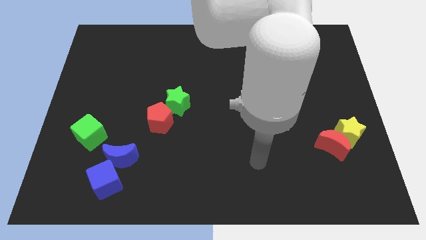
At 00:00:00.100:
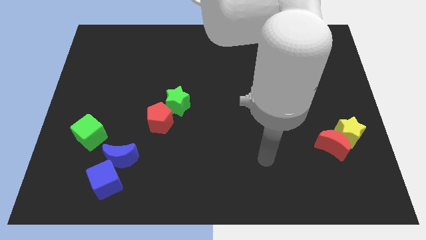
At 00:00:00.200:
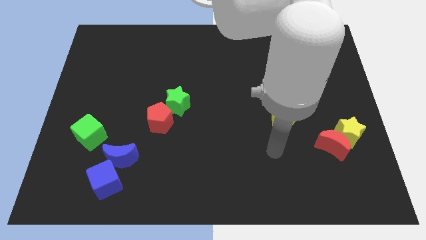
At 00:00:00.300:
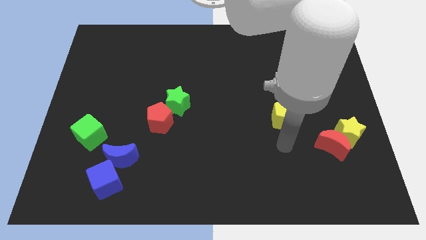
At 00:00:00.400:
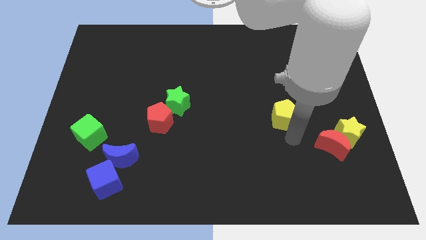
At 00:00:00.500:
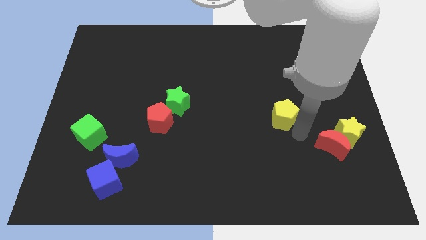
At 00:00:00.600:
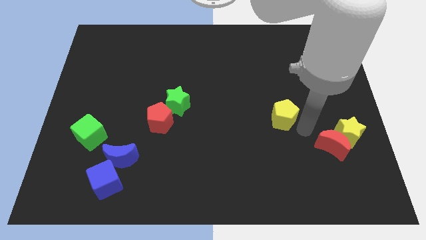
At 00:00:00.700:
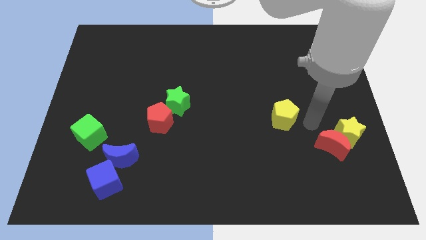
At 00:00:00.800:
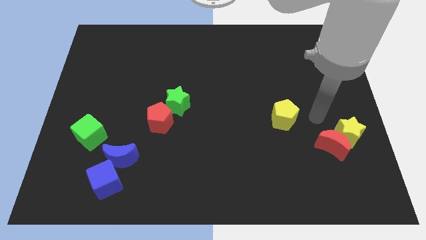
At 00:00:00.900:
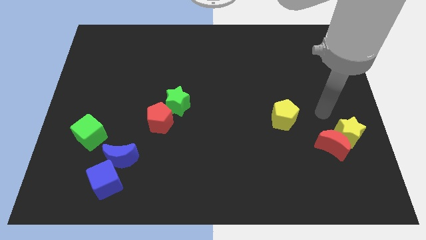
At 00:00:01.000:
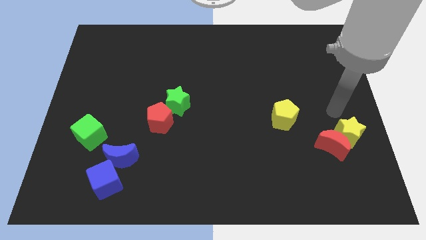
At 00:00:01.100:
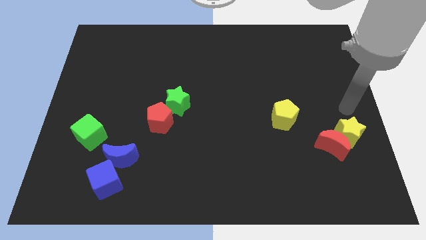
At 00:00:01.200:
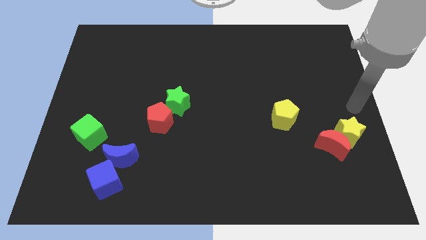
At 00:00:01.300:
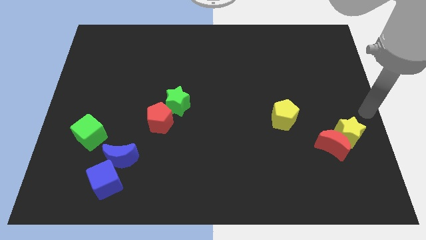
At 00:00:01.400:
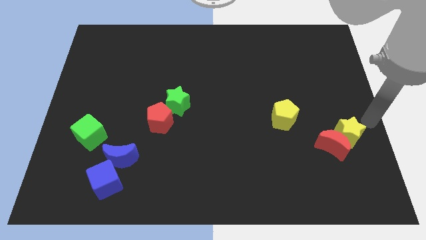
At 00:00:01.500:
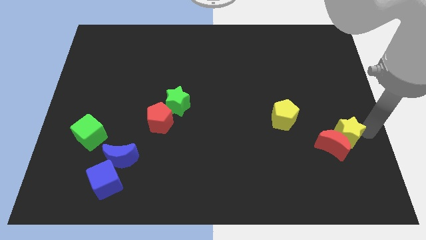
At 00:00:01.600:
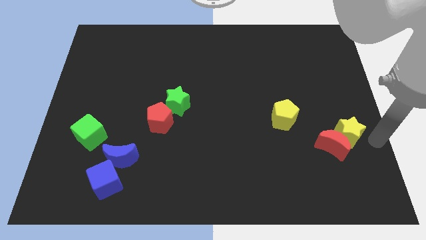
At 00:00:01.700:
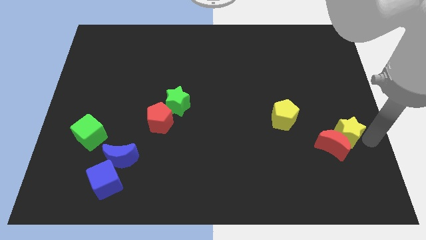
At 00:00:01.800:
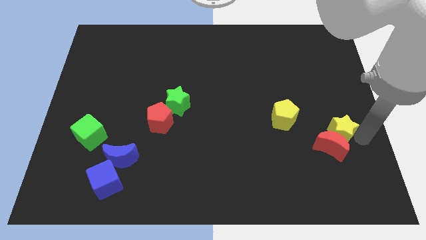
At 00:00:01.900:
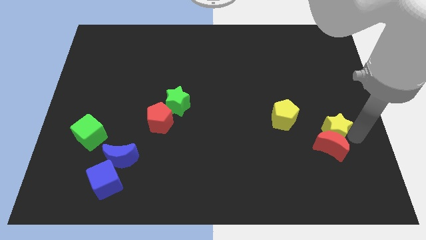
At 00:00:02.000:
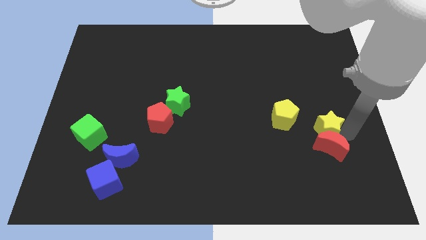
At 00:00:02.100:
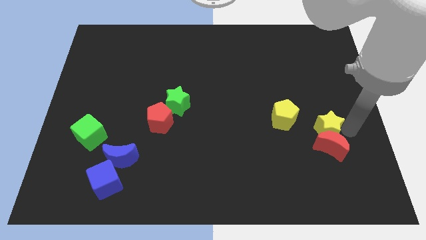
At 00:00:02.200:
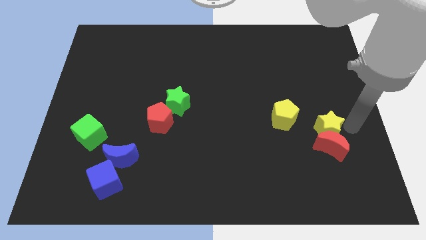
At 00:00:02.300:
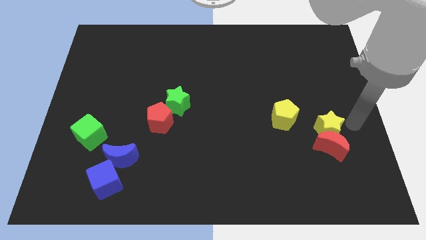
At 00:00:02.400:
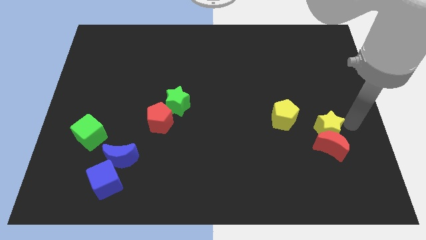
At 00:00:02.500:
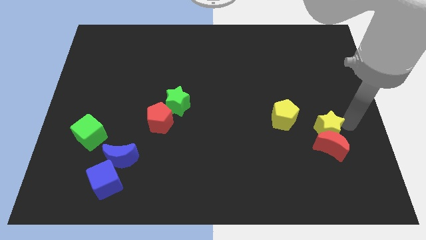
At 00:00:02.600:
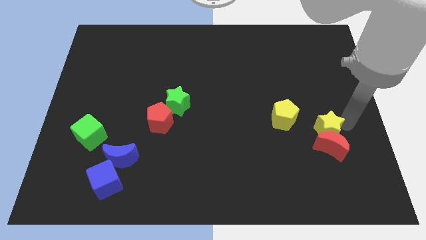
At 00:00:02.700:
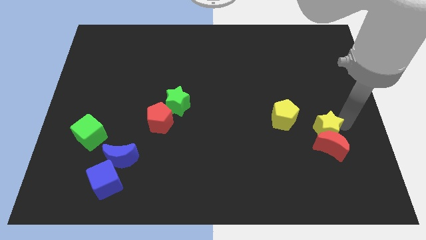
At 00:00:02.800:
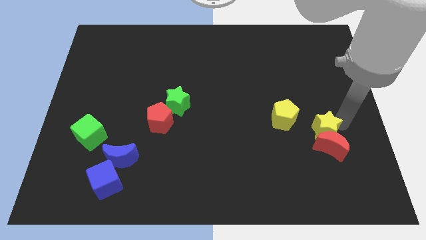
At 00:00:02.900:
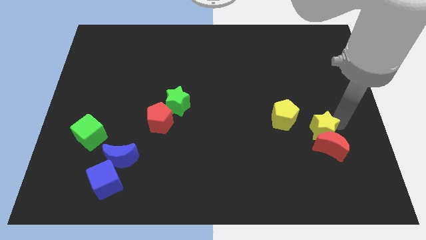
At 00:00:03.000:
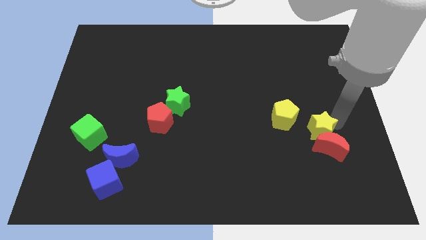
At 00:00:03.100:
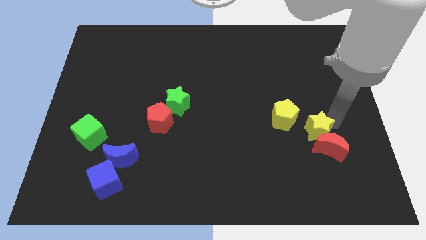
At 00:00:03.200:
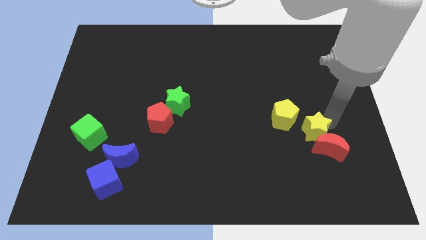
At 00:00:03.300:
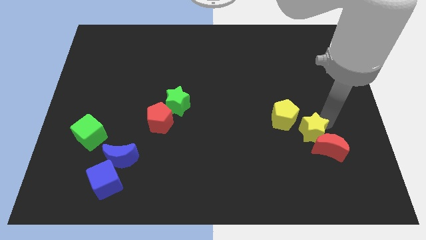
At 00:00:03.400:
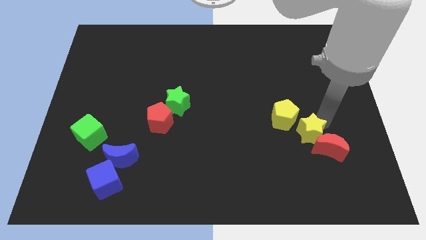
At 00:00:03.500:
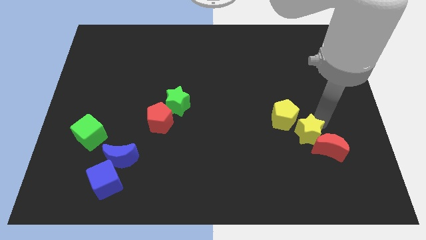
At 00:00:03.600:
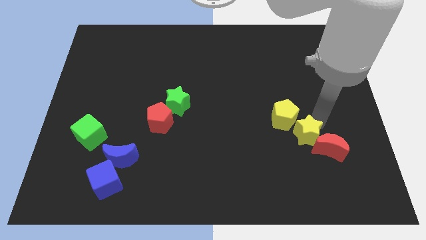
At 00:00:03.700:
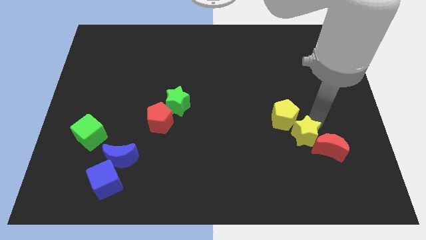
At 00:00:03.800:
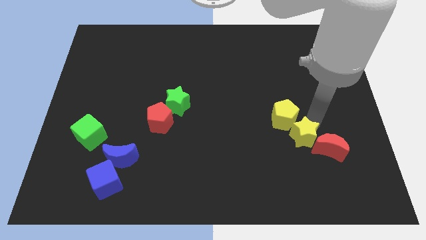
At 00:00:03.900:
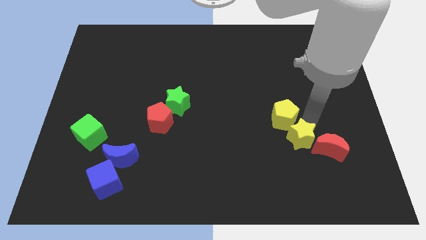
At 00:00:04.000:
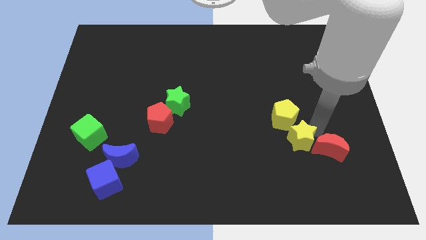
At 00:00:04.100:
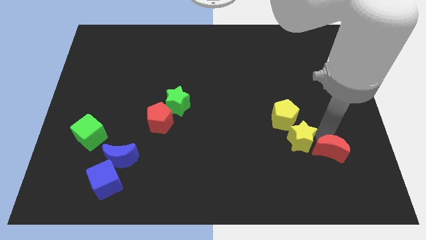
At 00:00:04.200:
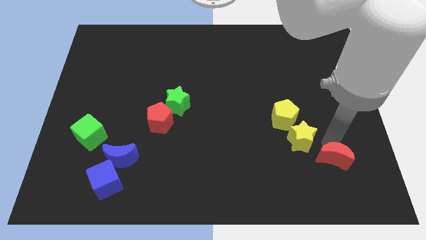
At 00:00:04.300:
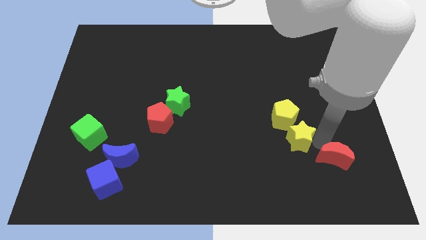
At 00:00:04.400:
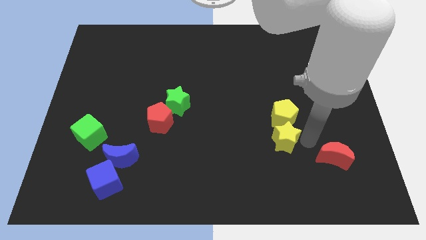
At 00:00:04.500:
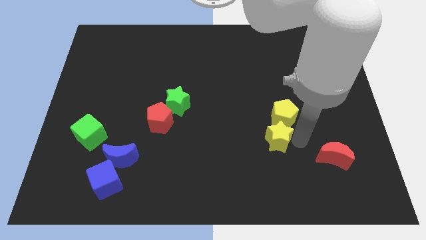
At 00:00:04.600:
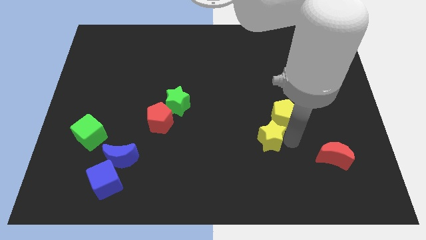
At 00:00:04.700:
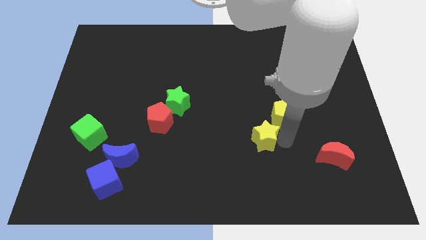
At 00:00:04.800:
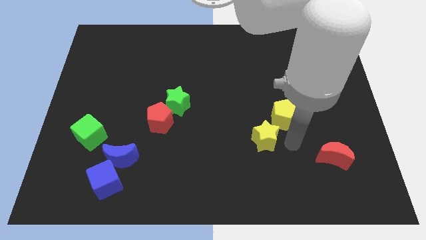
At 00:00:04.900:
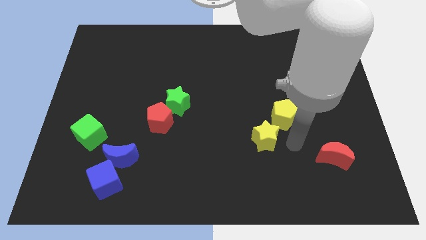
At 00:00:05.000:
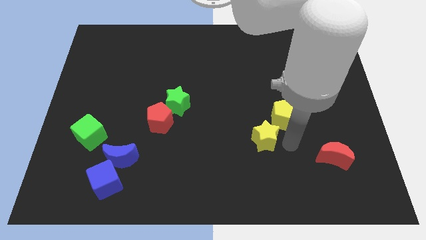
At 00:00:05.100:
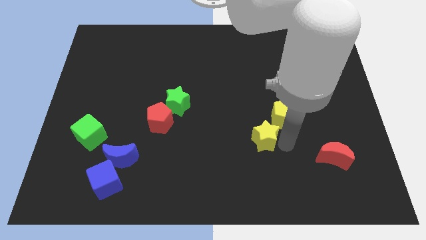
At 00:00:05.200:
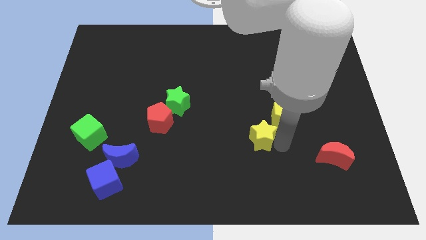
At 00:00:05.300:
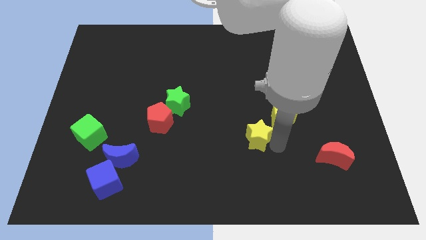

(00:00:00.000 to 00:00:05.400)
slide the yellow star left

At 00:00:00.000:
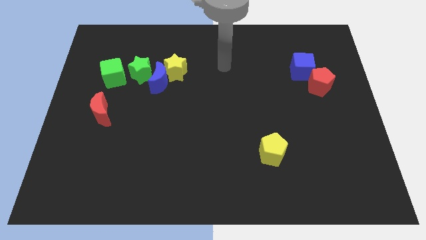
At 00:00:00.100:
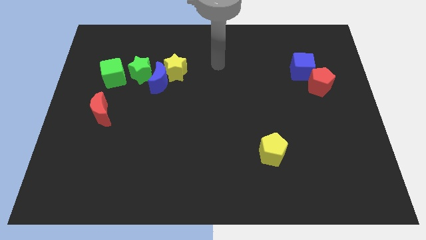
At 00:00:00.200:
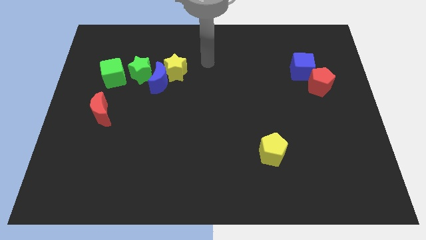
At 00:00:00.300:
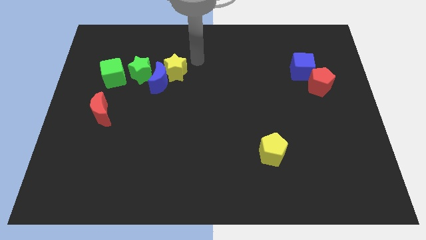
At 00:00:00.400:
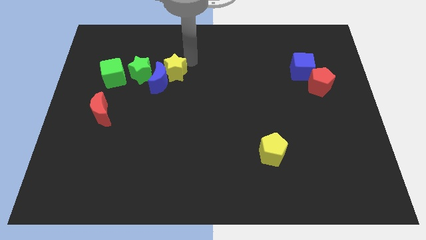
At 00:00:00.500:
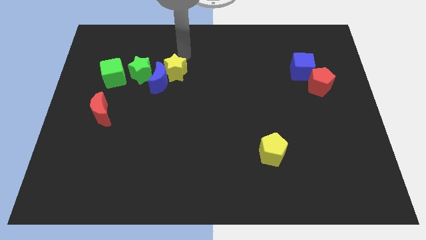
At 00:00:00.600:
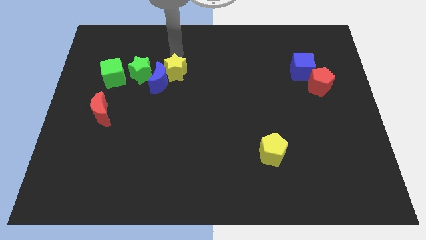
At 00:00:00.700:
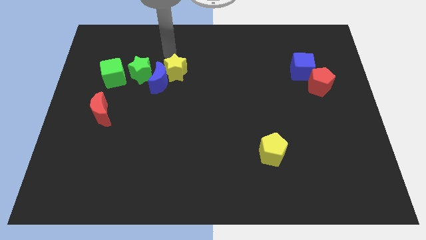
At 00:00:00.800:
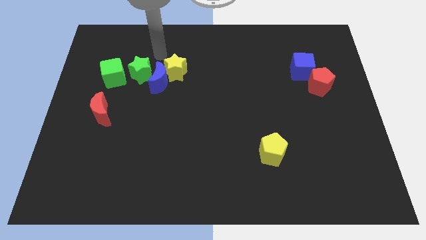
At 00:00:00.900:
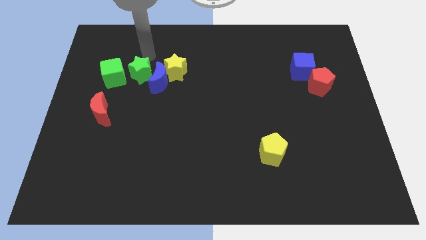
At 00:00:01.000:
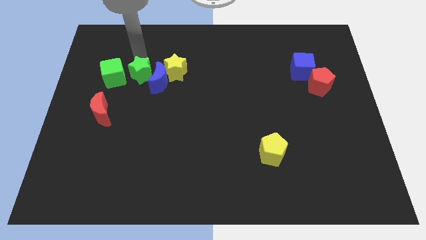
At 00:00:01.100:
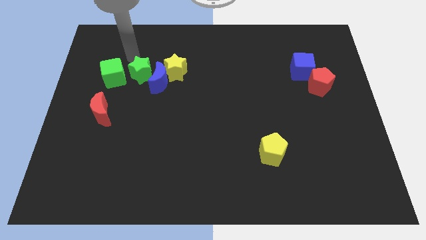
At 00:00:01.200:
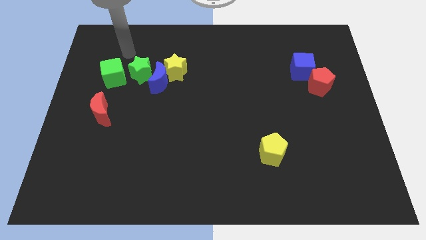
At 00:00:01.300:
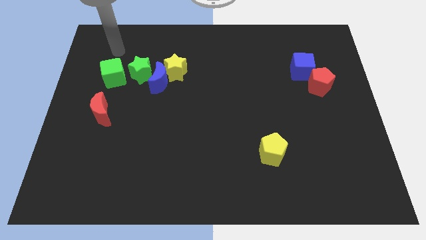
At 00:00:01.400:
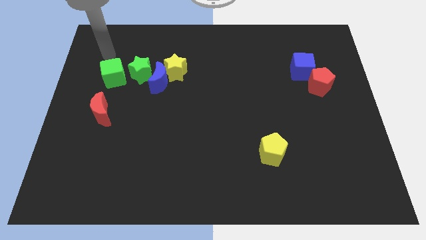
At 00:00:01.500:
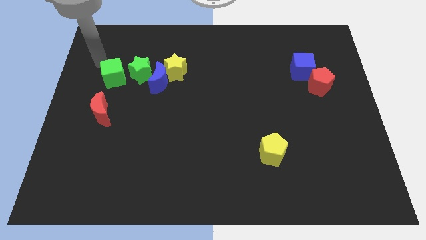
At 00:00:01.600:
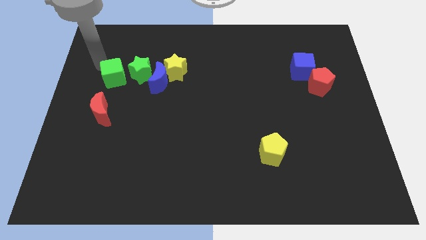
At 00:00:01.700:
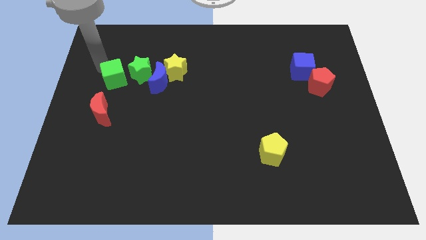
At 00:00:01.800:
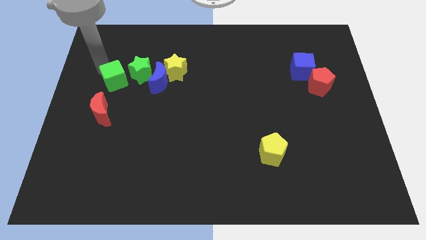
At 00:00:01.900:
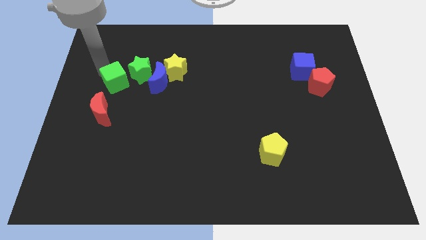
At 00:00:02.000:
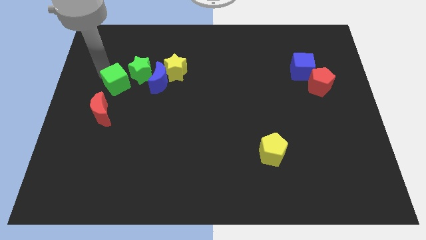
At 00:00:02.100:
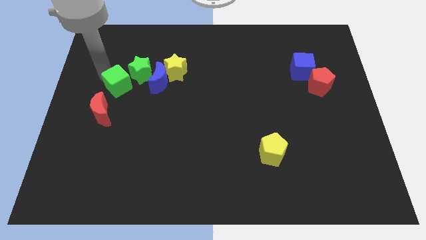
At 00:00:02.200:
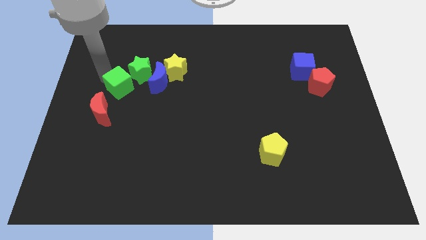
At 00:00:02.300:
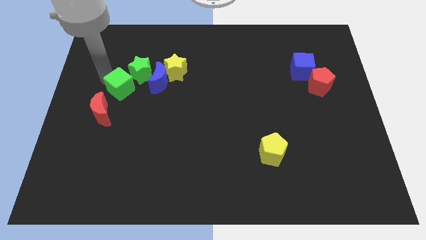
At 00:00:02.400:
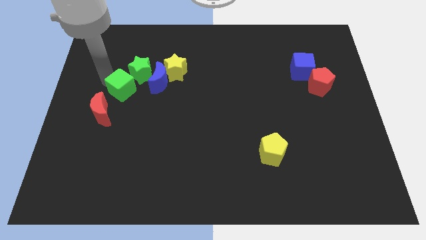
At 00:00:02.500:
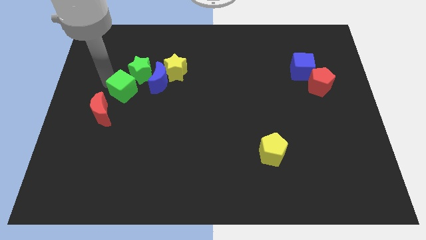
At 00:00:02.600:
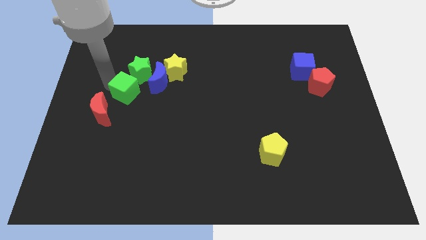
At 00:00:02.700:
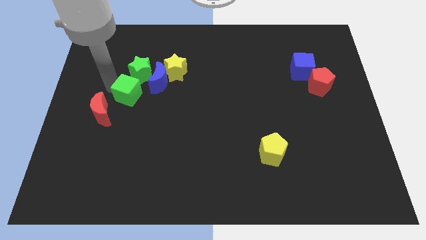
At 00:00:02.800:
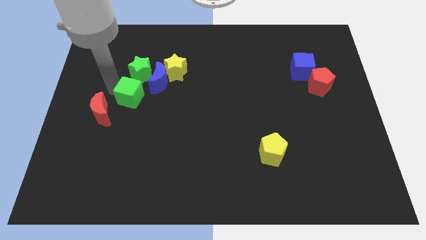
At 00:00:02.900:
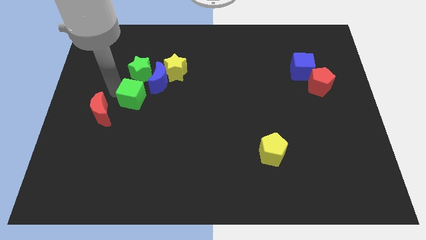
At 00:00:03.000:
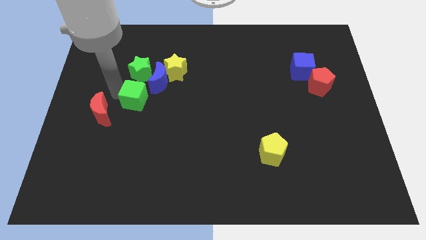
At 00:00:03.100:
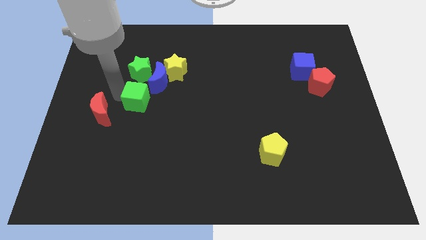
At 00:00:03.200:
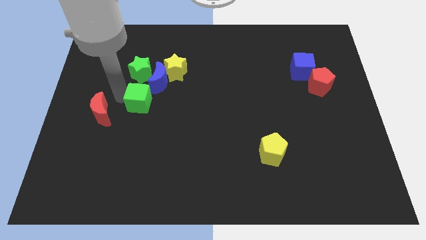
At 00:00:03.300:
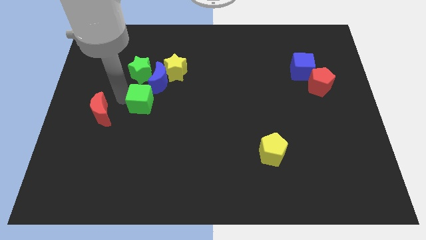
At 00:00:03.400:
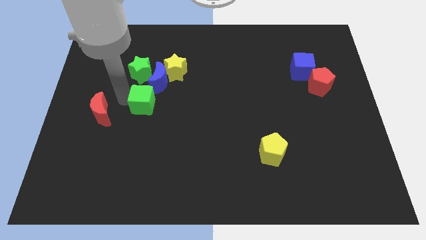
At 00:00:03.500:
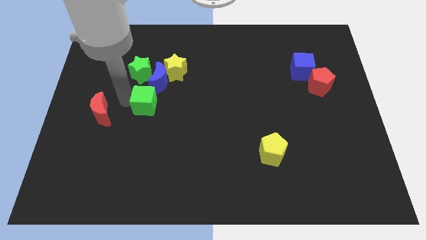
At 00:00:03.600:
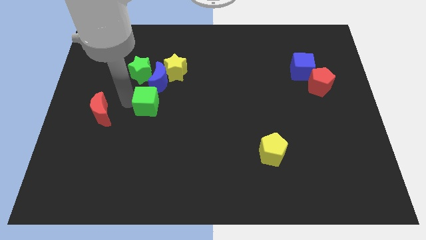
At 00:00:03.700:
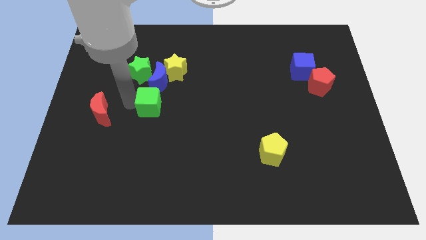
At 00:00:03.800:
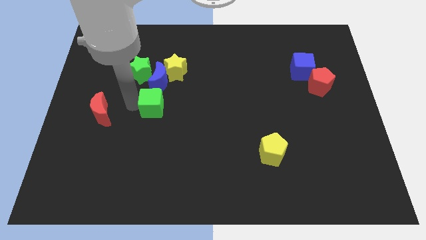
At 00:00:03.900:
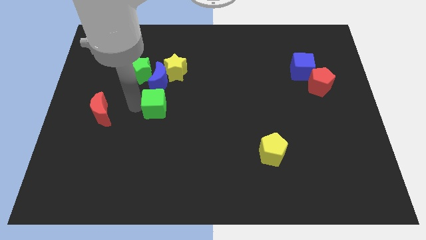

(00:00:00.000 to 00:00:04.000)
push the green cube somewhat to the right
